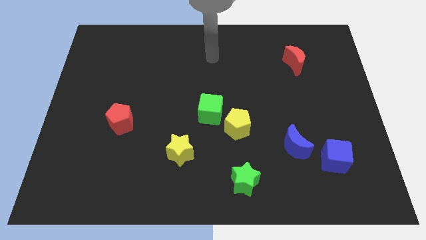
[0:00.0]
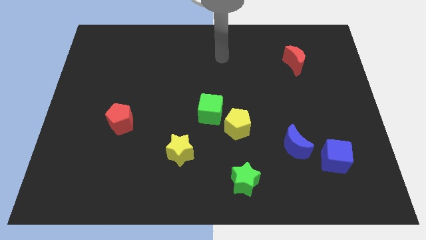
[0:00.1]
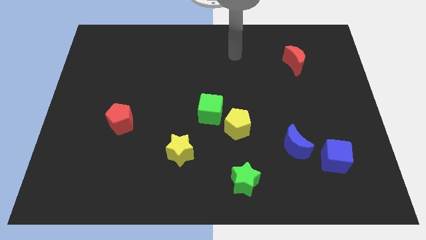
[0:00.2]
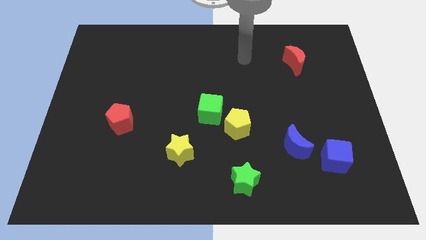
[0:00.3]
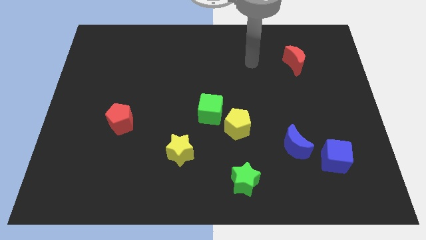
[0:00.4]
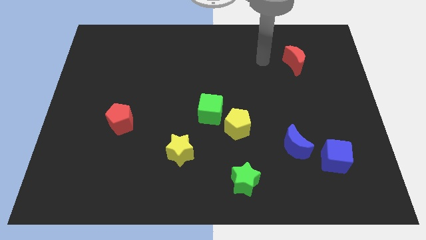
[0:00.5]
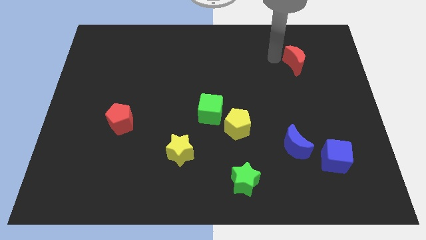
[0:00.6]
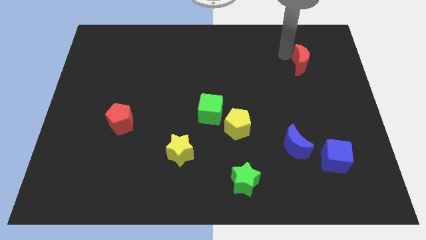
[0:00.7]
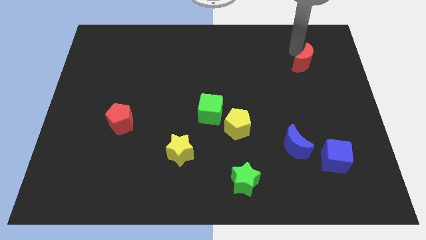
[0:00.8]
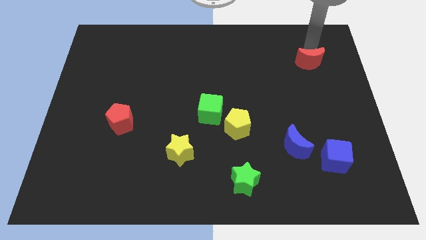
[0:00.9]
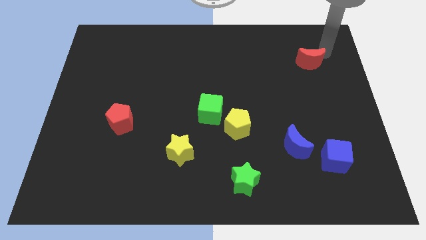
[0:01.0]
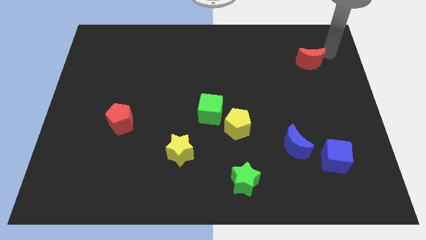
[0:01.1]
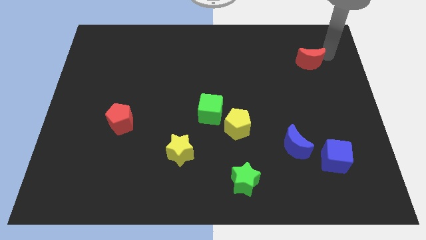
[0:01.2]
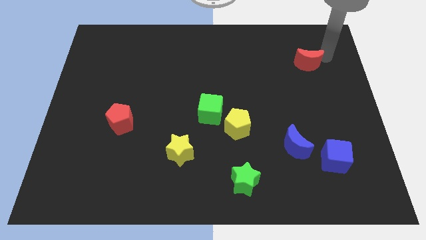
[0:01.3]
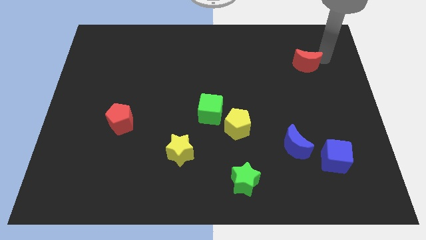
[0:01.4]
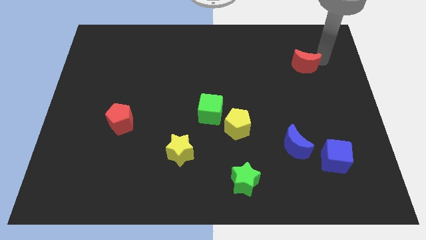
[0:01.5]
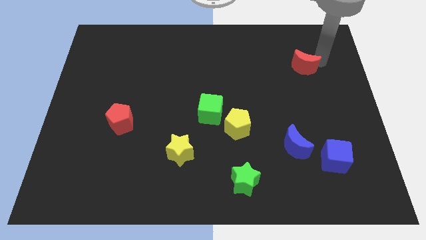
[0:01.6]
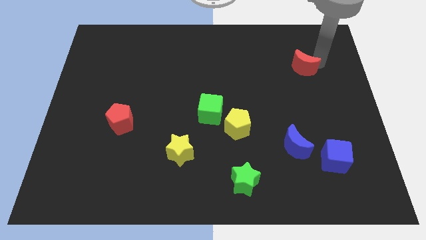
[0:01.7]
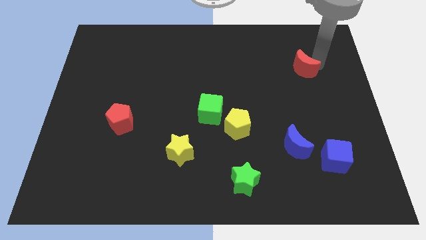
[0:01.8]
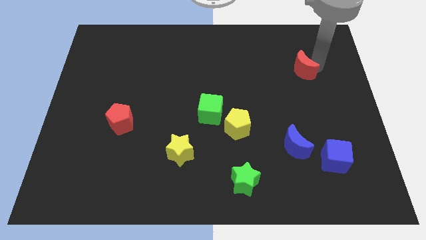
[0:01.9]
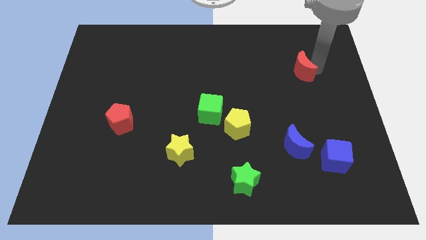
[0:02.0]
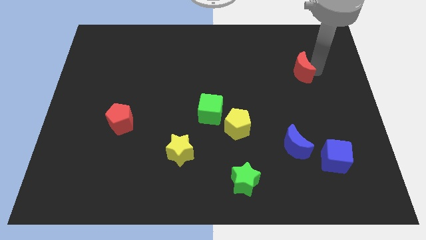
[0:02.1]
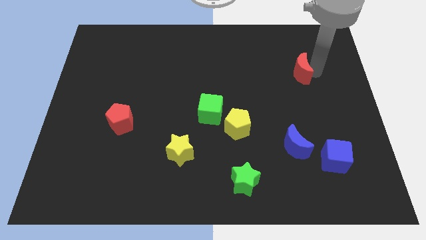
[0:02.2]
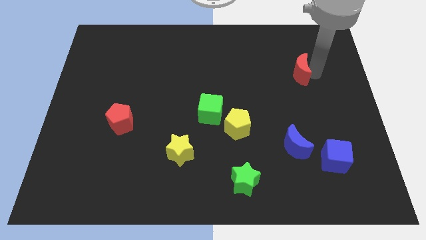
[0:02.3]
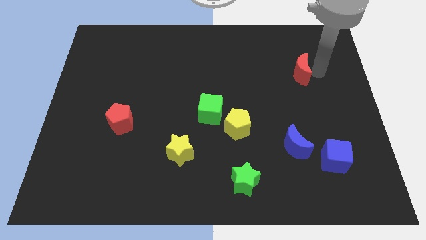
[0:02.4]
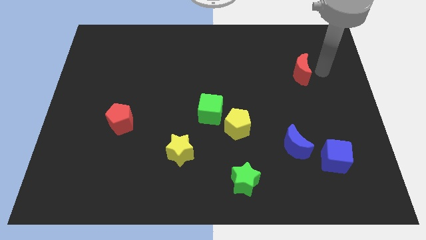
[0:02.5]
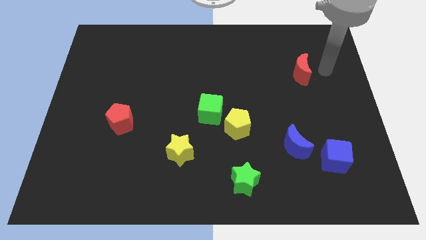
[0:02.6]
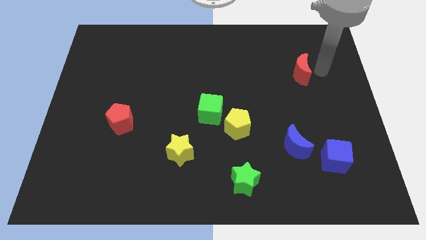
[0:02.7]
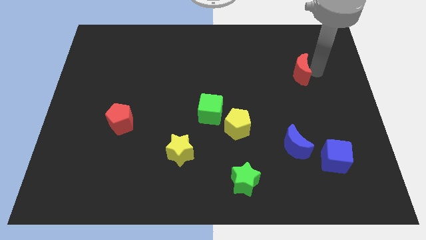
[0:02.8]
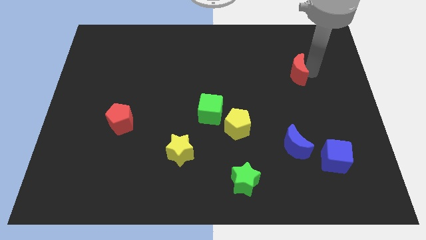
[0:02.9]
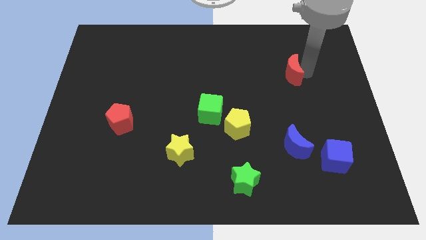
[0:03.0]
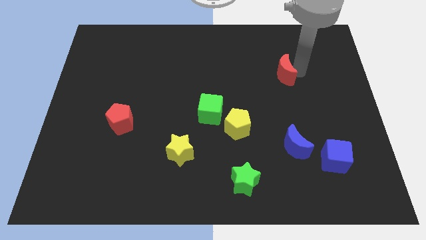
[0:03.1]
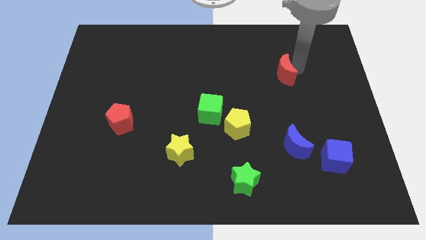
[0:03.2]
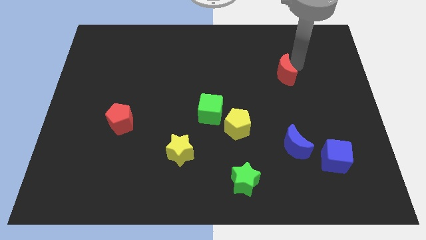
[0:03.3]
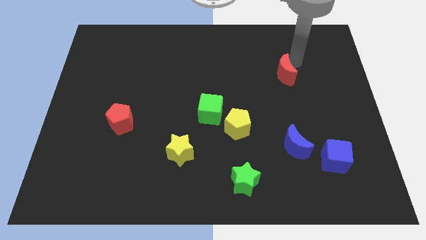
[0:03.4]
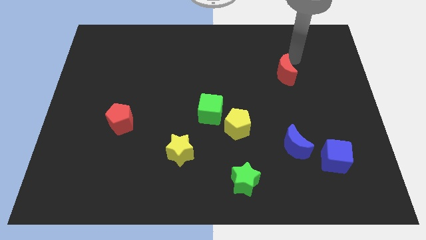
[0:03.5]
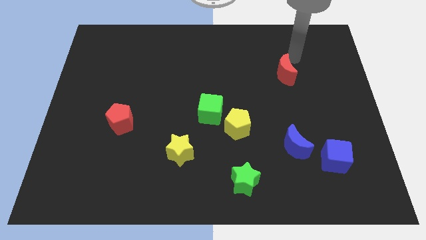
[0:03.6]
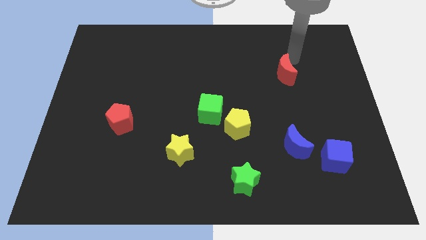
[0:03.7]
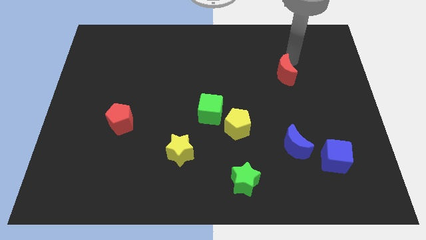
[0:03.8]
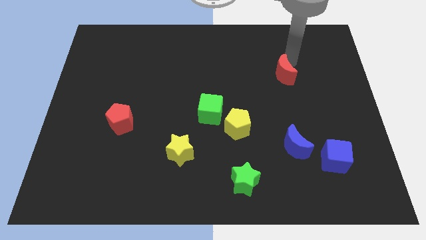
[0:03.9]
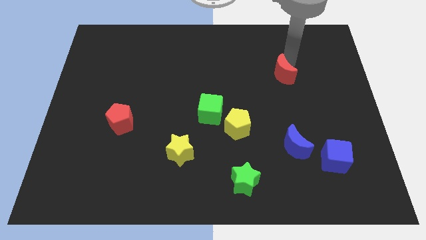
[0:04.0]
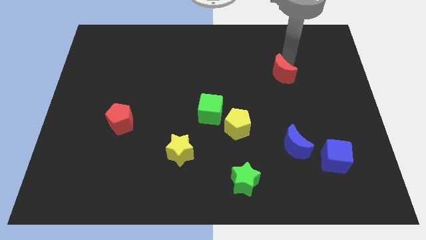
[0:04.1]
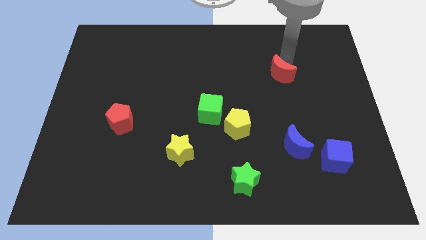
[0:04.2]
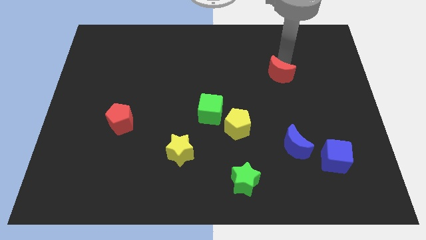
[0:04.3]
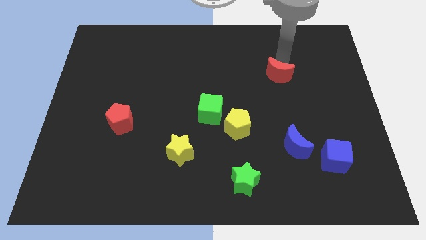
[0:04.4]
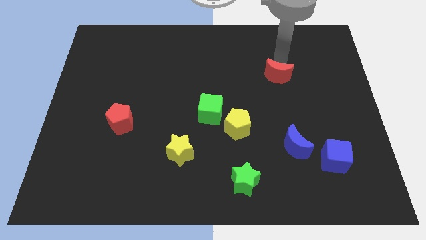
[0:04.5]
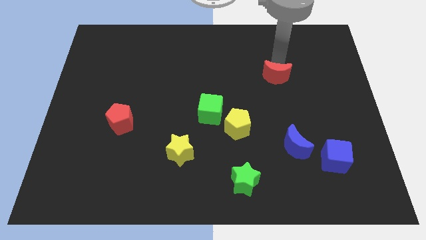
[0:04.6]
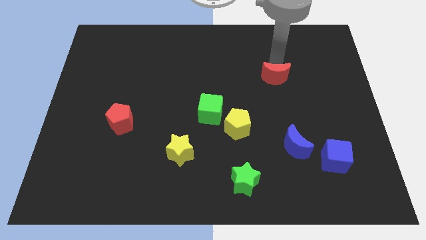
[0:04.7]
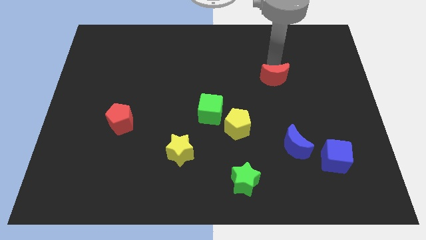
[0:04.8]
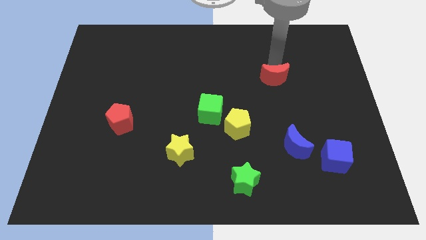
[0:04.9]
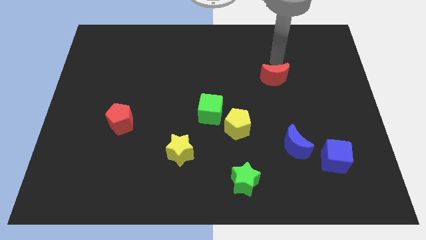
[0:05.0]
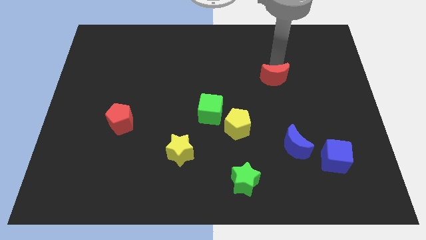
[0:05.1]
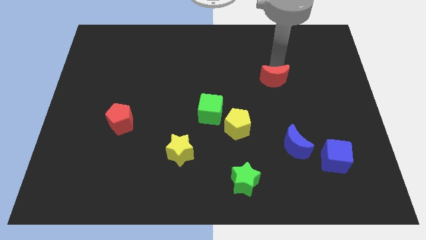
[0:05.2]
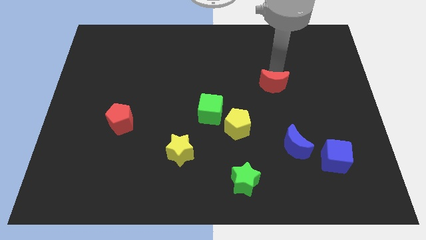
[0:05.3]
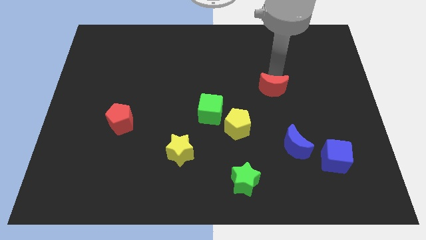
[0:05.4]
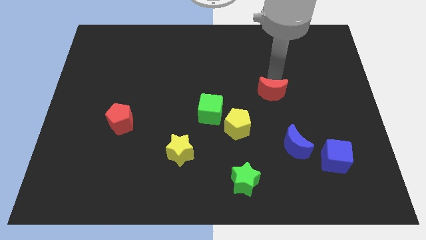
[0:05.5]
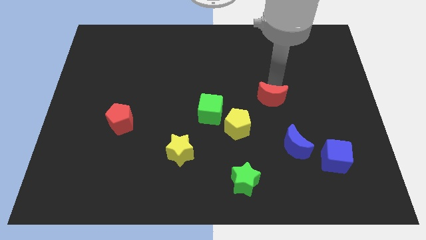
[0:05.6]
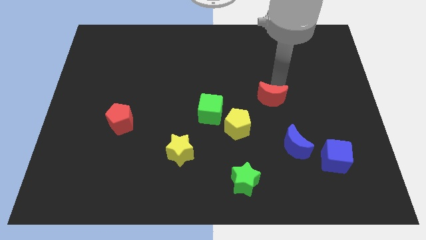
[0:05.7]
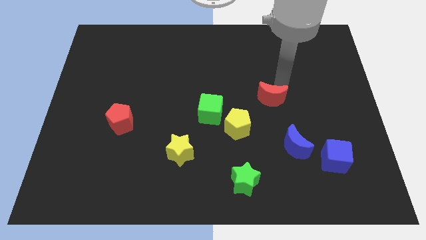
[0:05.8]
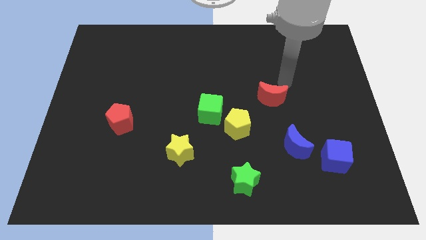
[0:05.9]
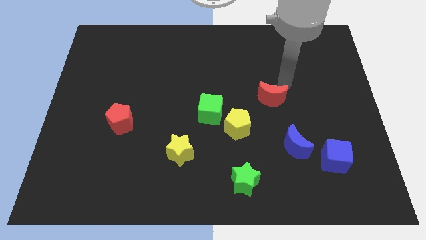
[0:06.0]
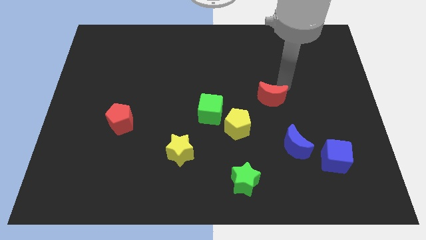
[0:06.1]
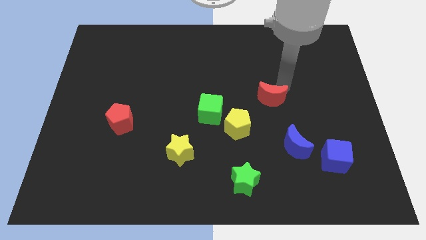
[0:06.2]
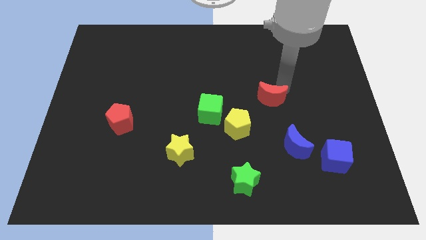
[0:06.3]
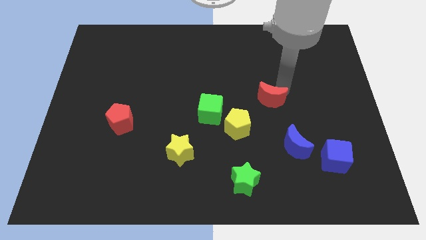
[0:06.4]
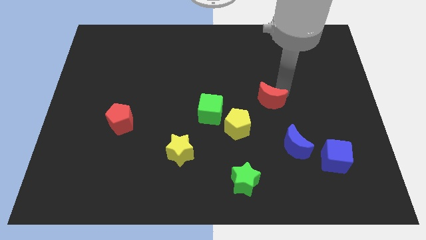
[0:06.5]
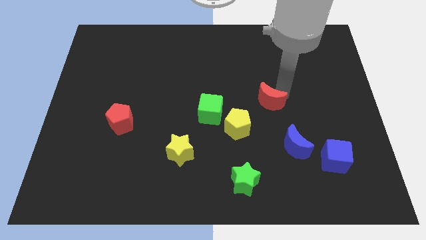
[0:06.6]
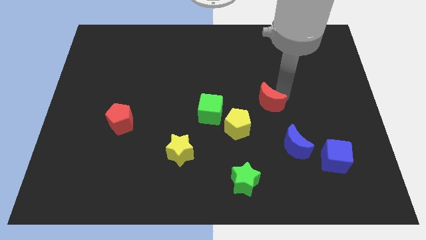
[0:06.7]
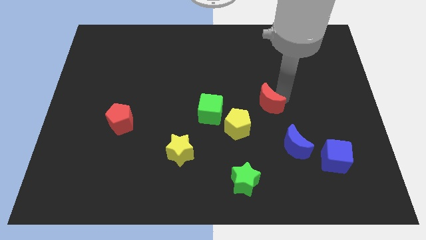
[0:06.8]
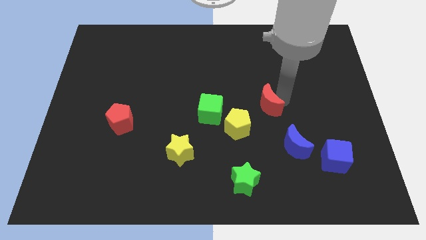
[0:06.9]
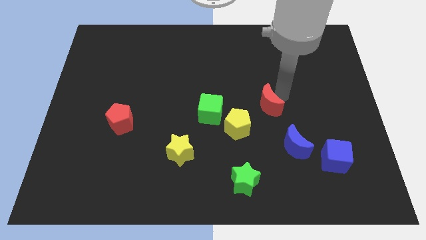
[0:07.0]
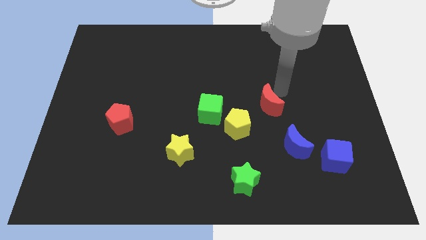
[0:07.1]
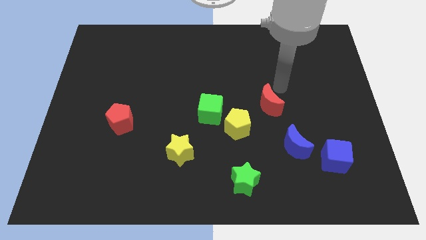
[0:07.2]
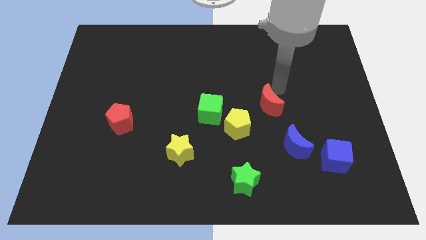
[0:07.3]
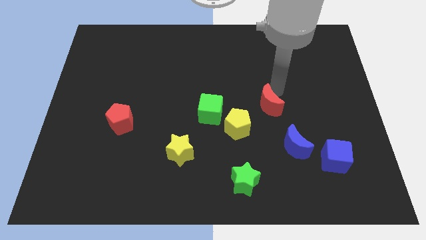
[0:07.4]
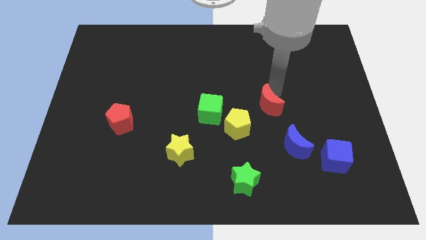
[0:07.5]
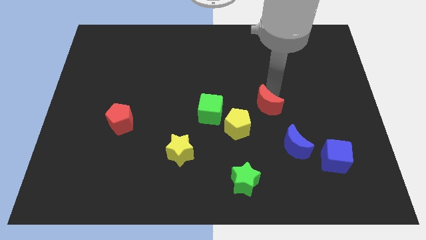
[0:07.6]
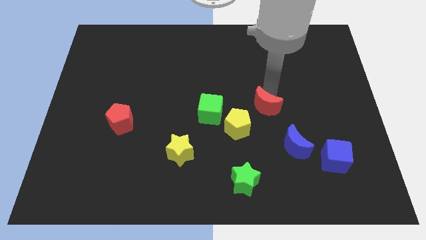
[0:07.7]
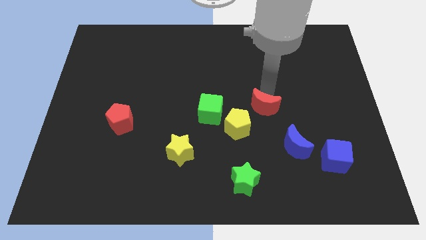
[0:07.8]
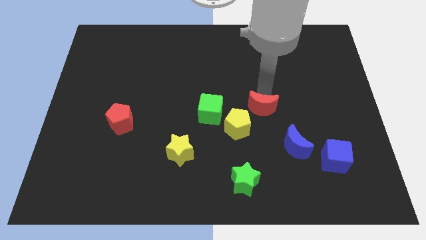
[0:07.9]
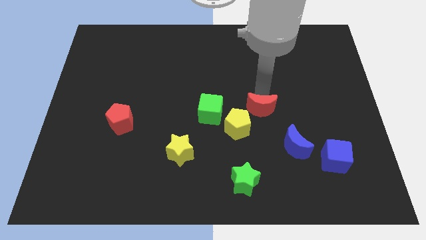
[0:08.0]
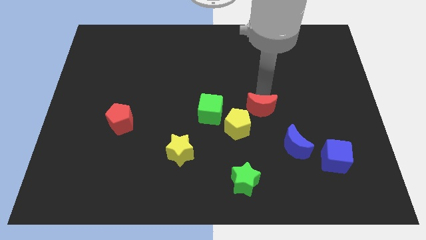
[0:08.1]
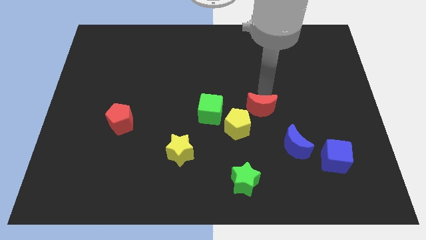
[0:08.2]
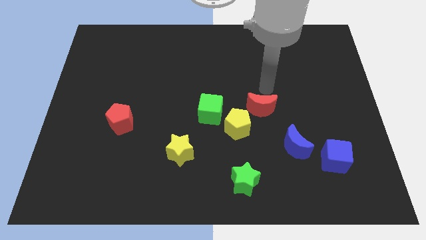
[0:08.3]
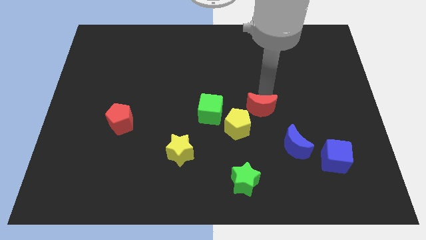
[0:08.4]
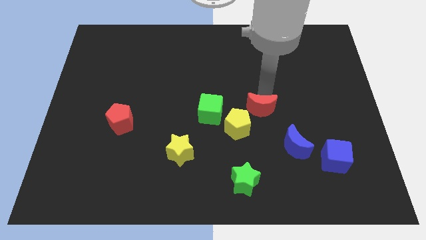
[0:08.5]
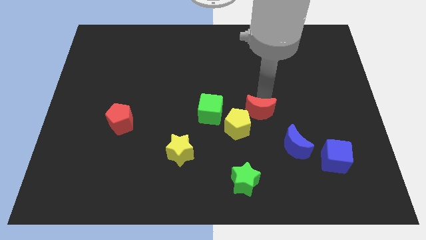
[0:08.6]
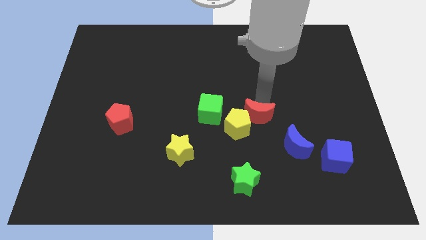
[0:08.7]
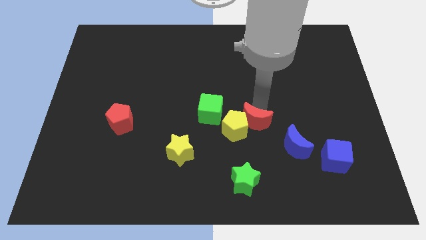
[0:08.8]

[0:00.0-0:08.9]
slide the red moon diagonally down and to the left
